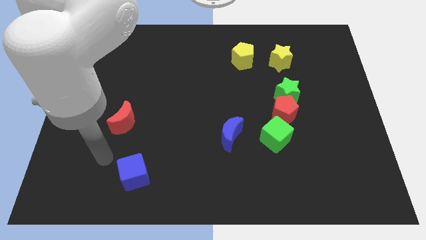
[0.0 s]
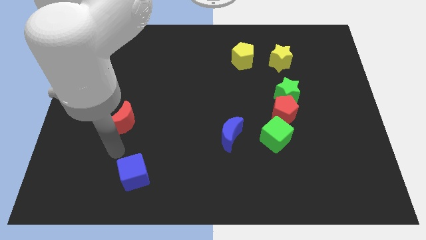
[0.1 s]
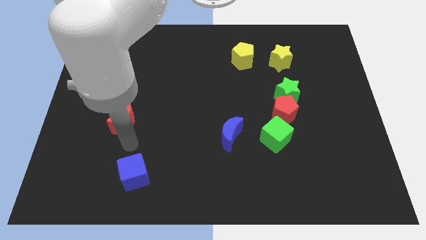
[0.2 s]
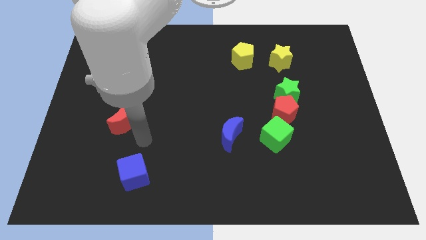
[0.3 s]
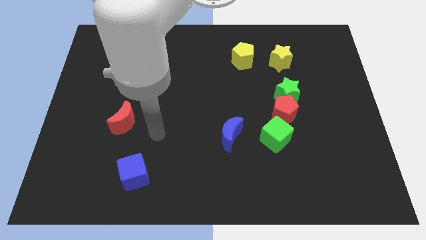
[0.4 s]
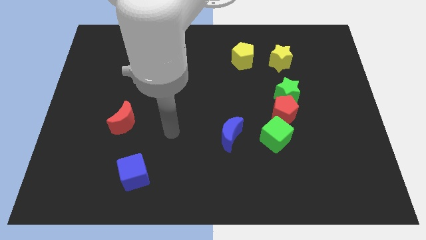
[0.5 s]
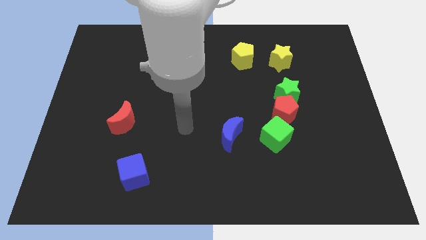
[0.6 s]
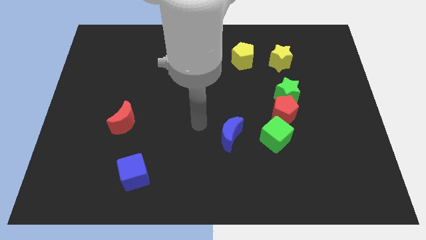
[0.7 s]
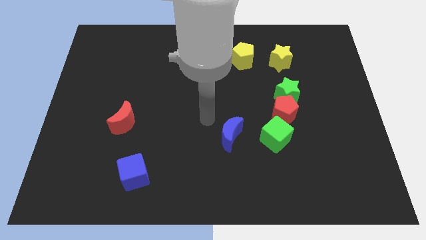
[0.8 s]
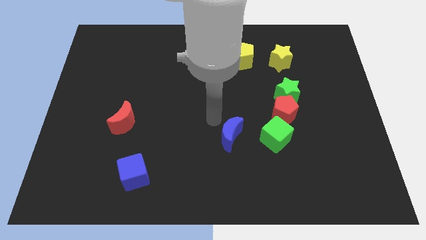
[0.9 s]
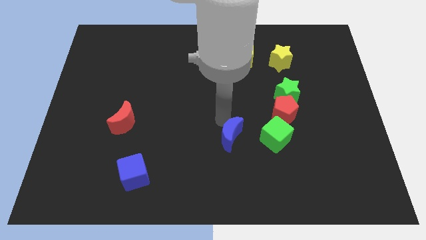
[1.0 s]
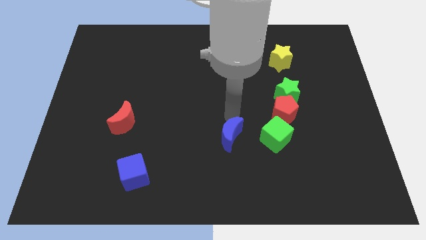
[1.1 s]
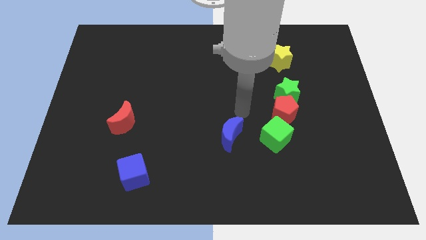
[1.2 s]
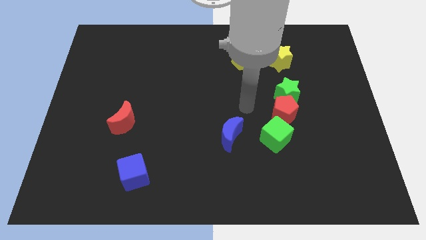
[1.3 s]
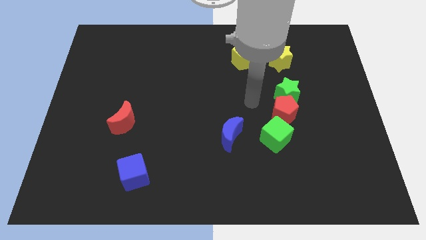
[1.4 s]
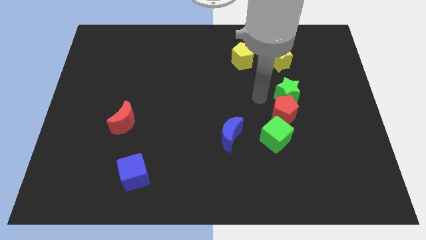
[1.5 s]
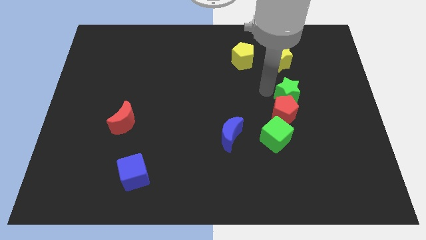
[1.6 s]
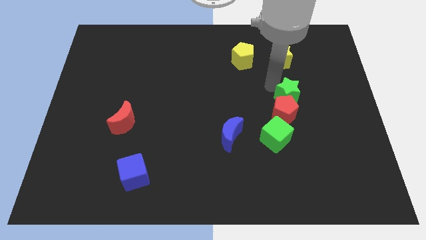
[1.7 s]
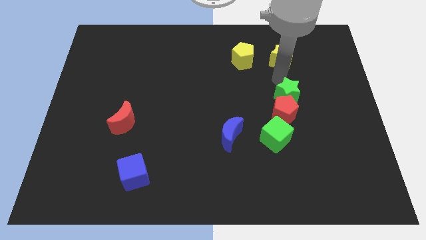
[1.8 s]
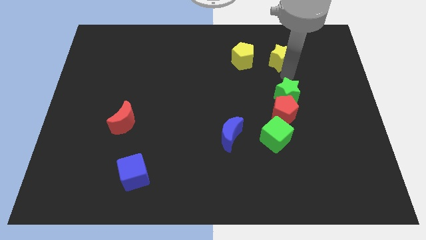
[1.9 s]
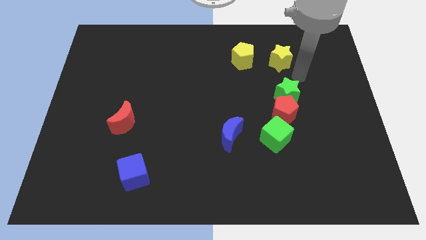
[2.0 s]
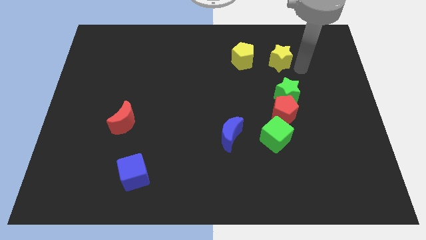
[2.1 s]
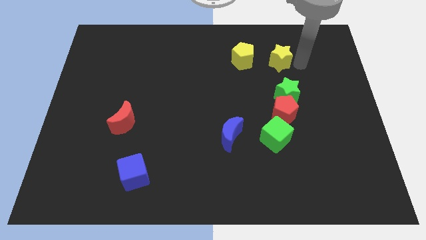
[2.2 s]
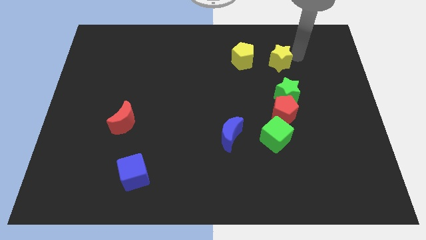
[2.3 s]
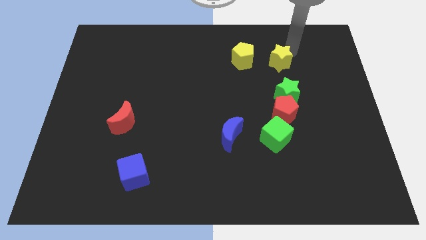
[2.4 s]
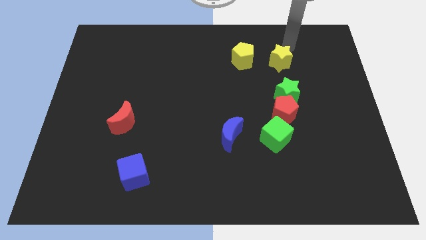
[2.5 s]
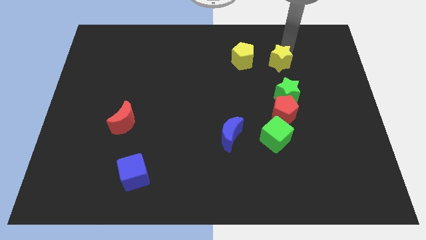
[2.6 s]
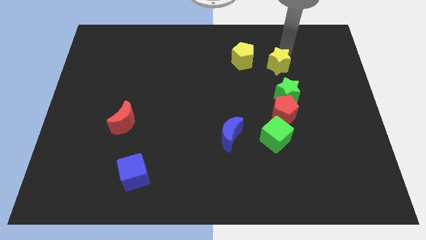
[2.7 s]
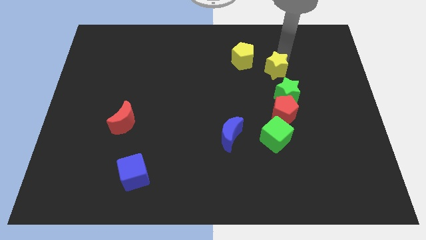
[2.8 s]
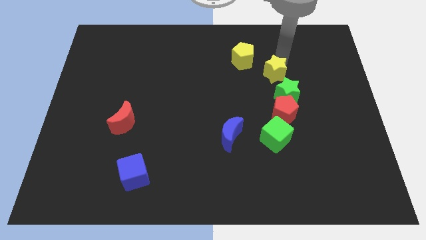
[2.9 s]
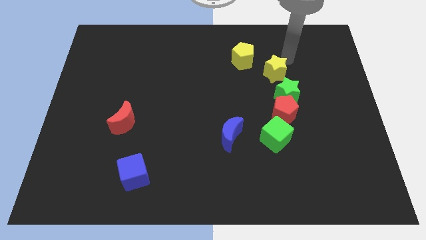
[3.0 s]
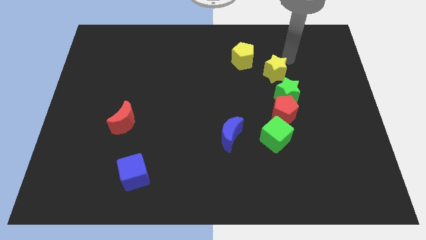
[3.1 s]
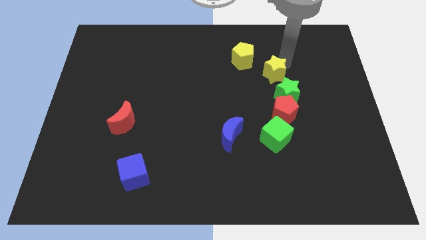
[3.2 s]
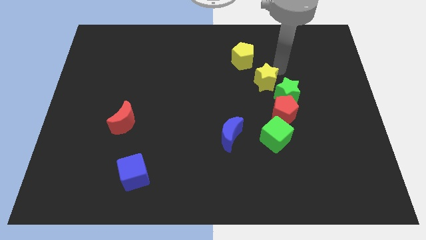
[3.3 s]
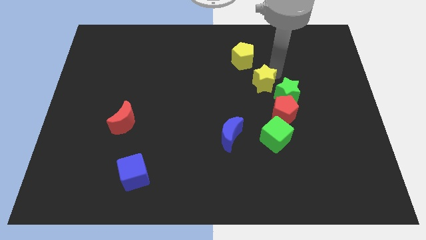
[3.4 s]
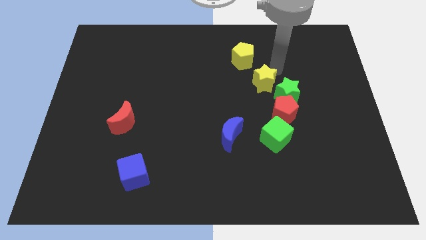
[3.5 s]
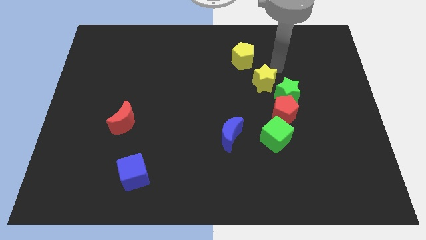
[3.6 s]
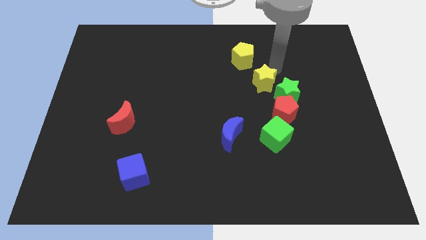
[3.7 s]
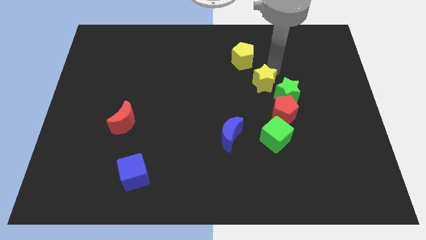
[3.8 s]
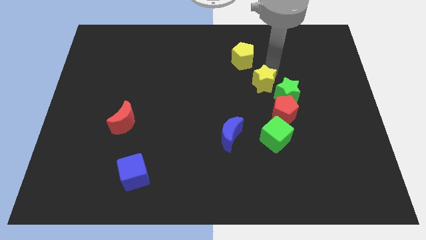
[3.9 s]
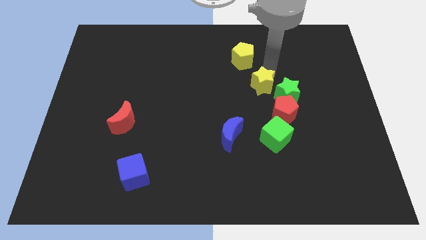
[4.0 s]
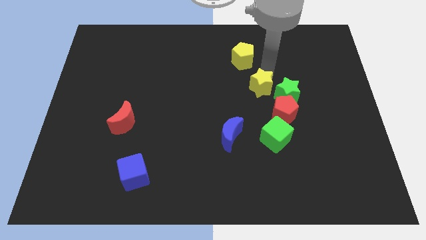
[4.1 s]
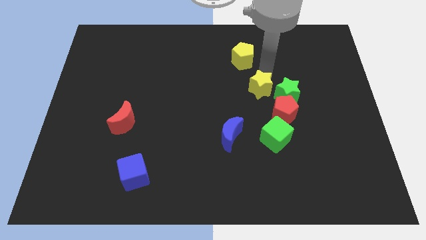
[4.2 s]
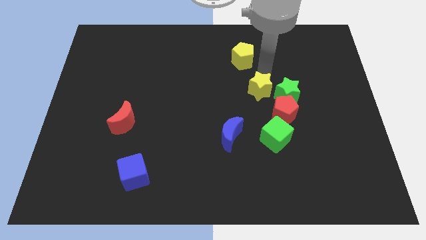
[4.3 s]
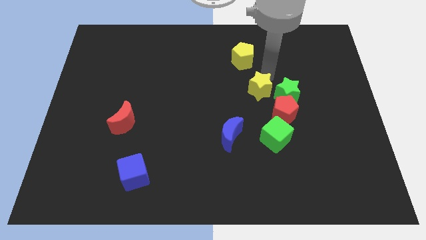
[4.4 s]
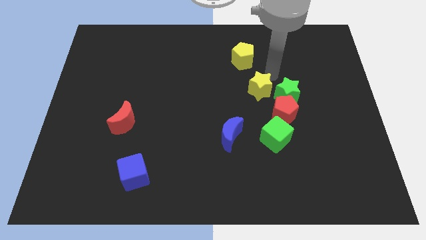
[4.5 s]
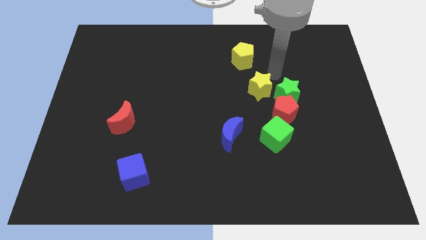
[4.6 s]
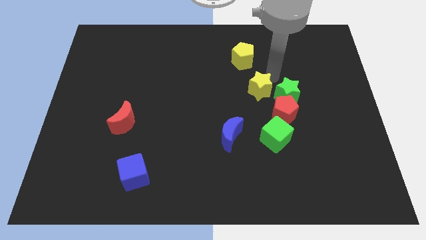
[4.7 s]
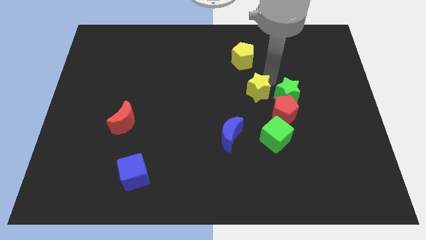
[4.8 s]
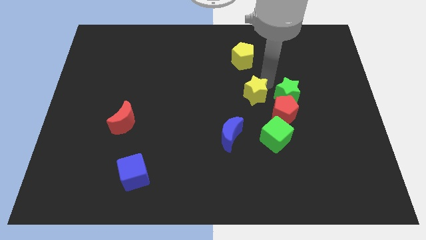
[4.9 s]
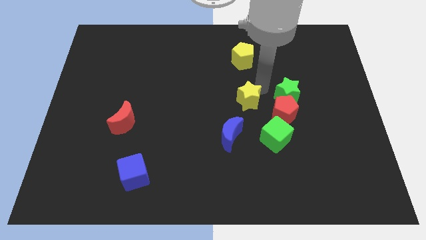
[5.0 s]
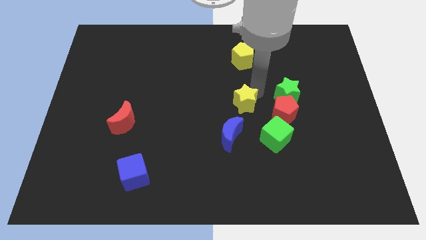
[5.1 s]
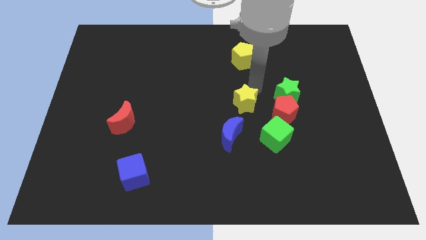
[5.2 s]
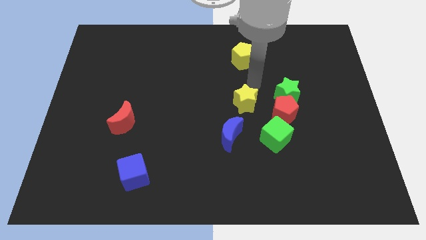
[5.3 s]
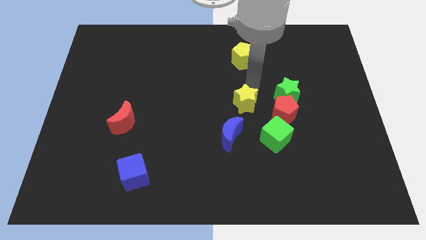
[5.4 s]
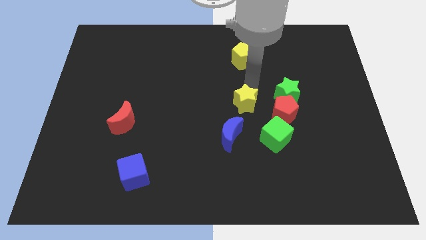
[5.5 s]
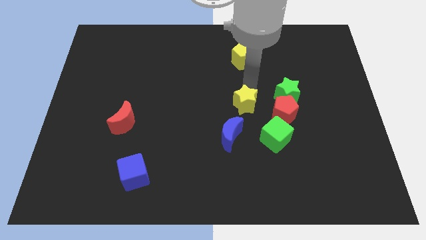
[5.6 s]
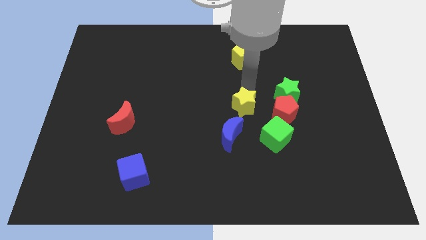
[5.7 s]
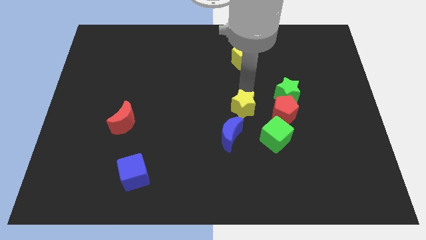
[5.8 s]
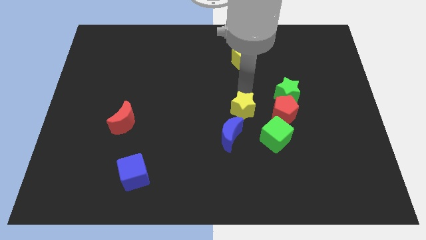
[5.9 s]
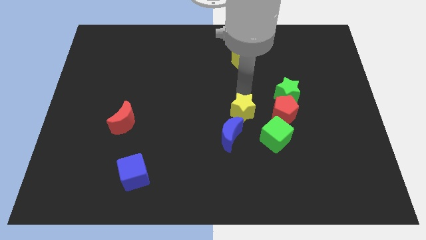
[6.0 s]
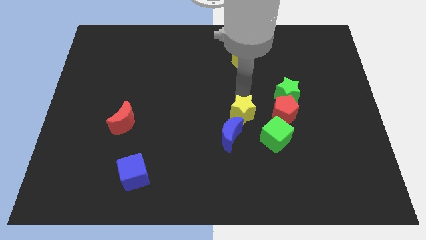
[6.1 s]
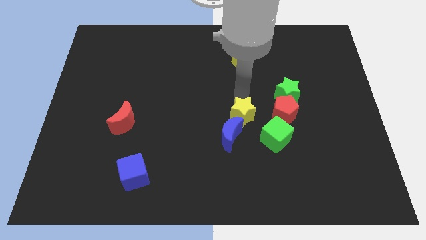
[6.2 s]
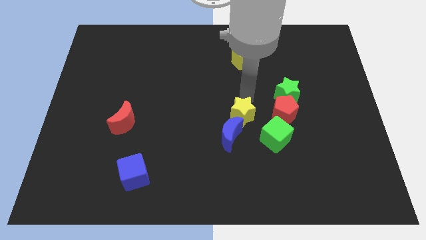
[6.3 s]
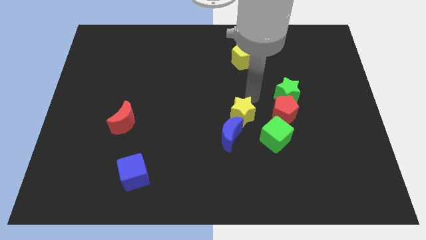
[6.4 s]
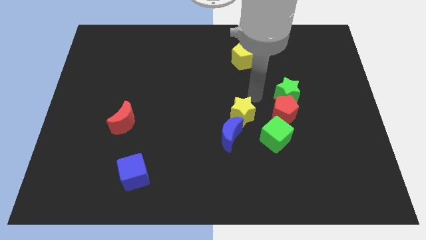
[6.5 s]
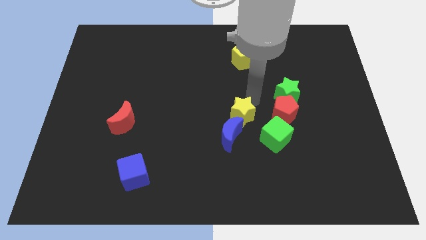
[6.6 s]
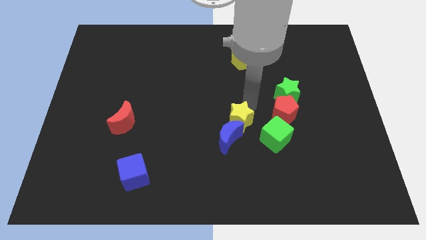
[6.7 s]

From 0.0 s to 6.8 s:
move the yellow star next to the blue moon
